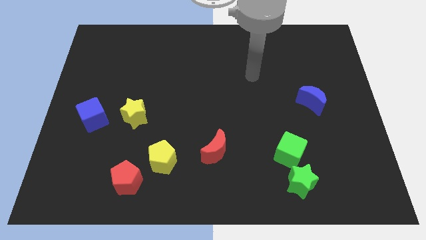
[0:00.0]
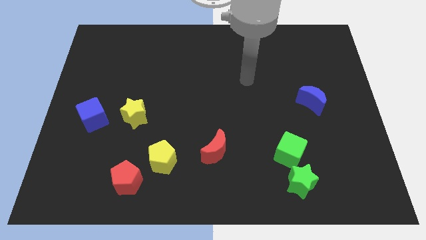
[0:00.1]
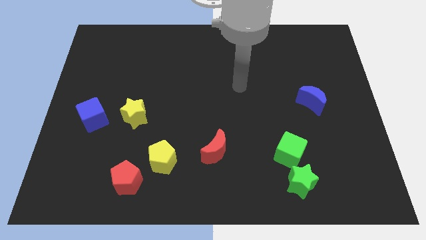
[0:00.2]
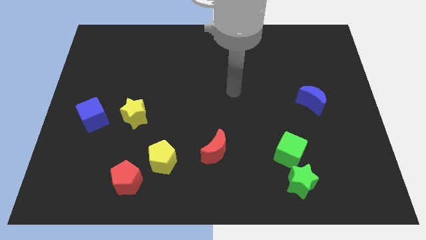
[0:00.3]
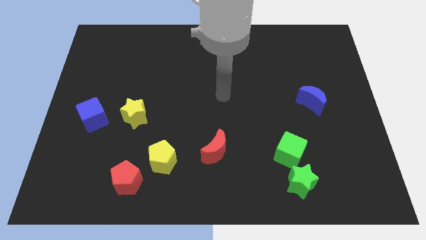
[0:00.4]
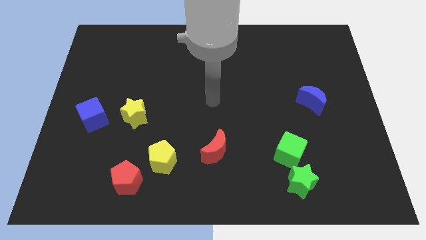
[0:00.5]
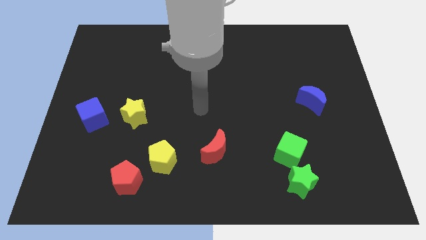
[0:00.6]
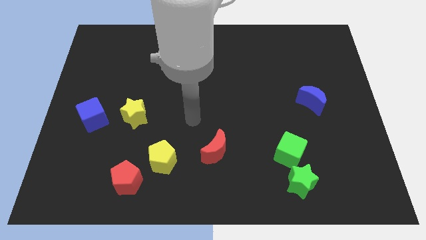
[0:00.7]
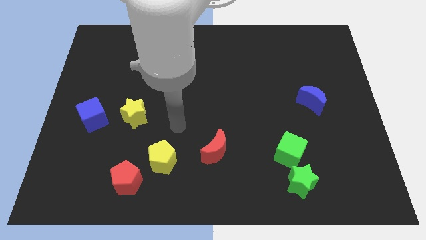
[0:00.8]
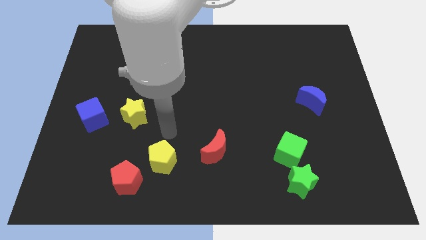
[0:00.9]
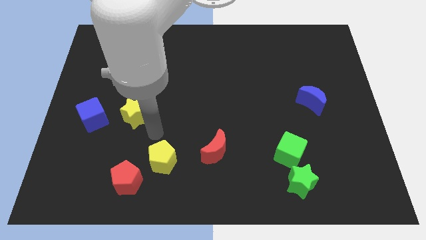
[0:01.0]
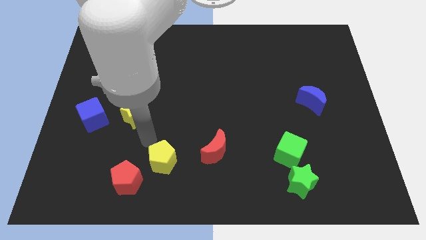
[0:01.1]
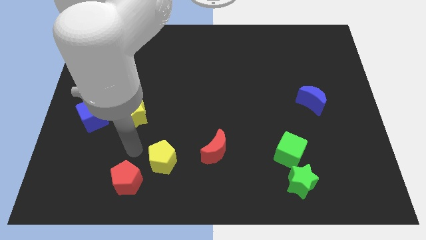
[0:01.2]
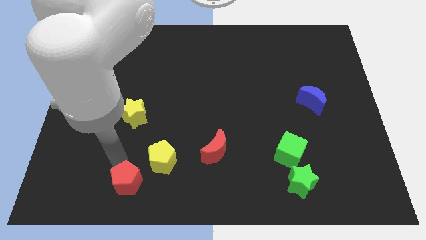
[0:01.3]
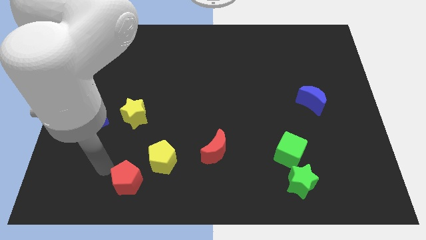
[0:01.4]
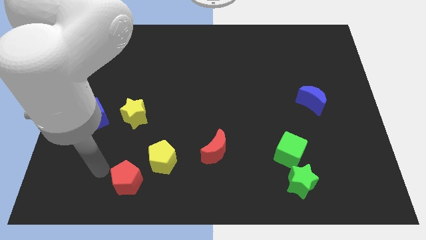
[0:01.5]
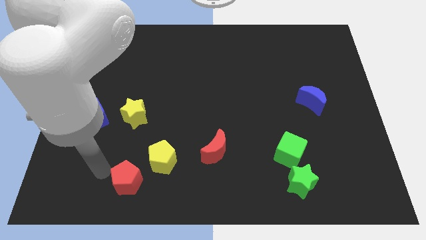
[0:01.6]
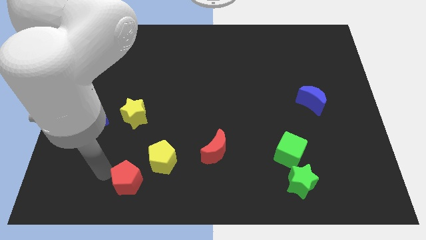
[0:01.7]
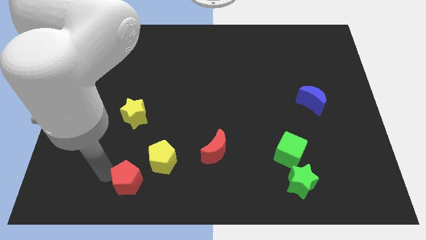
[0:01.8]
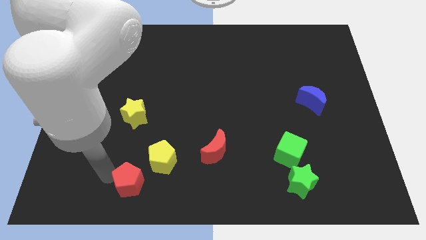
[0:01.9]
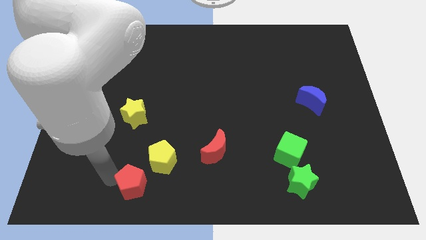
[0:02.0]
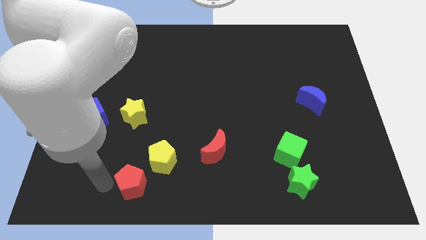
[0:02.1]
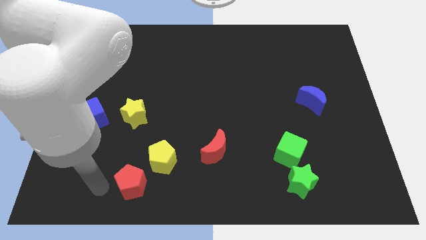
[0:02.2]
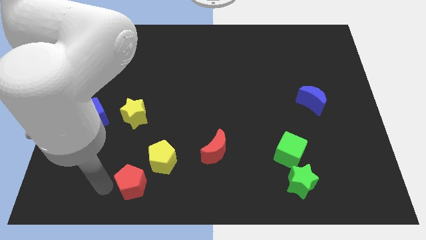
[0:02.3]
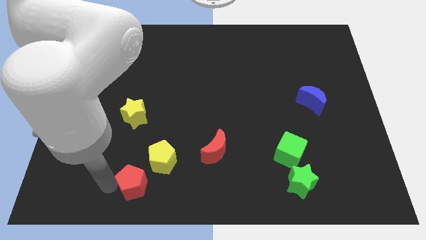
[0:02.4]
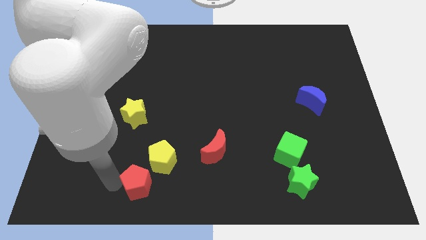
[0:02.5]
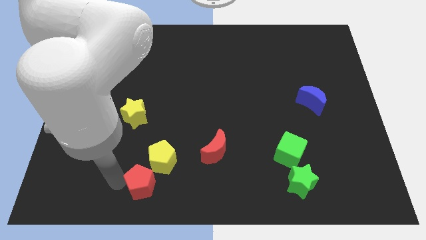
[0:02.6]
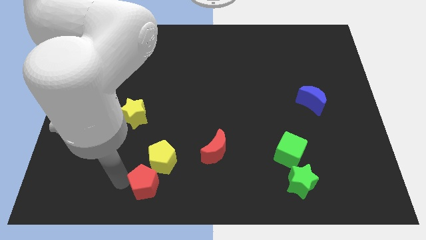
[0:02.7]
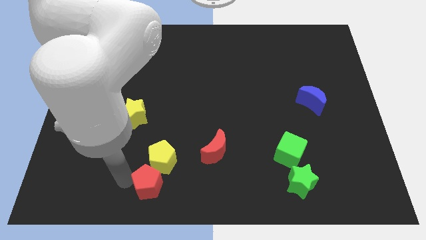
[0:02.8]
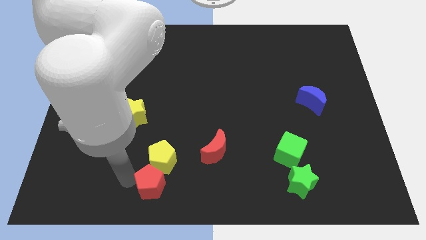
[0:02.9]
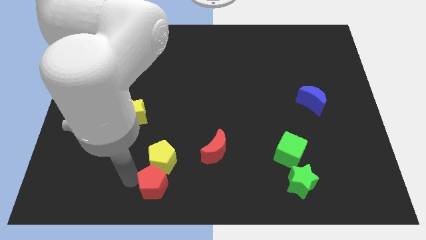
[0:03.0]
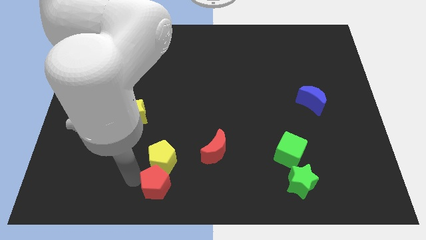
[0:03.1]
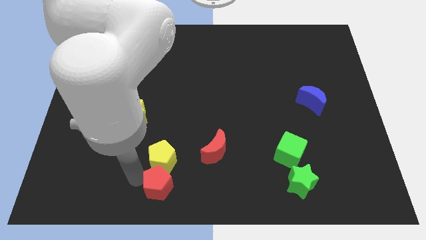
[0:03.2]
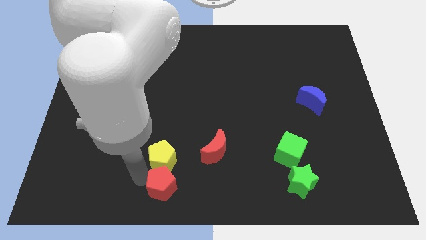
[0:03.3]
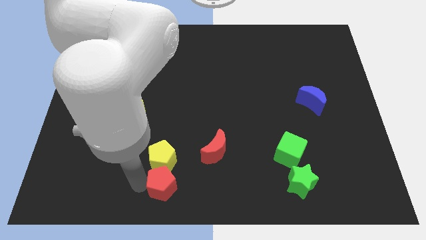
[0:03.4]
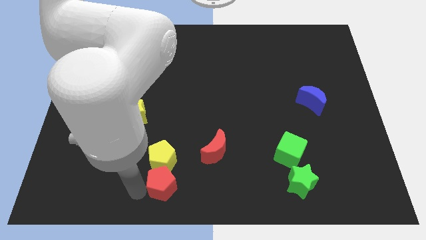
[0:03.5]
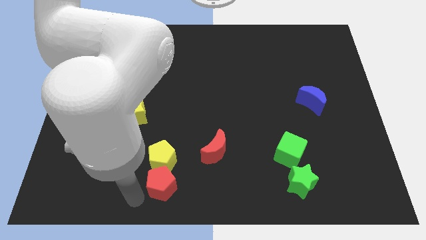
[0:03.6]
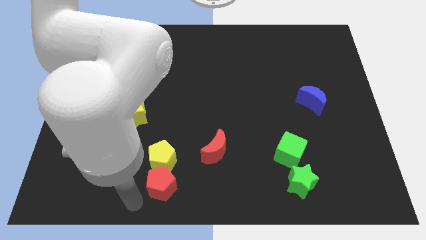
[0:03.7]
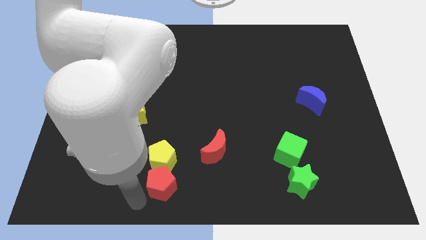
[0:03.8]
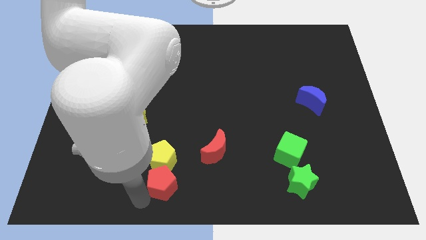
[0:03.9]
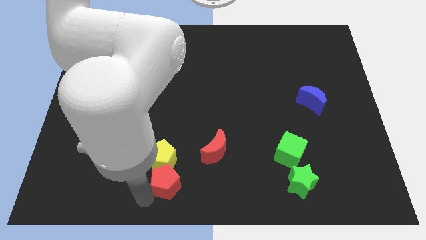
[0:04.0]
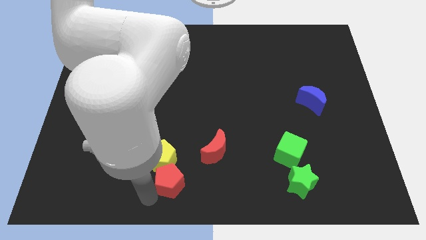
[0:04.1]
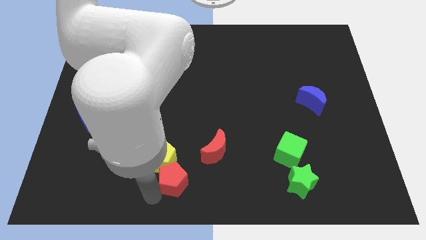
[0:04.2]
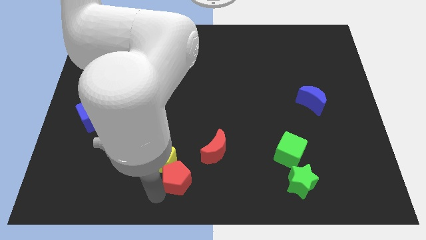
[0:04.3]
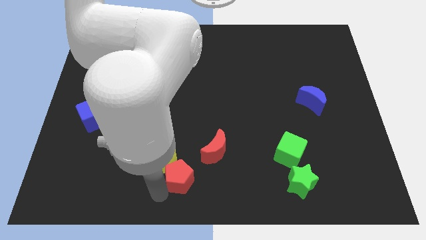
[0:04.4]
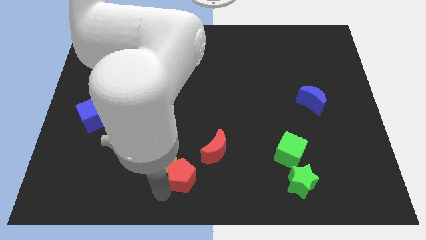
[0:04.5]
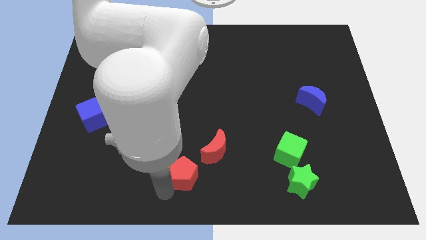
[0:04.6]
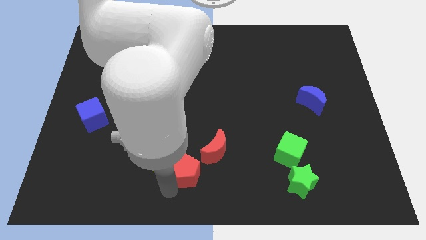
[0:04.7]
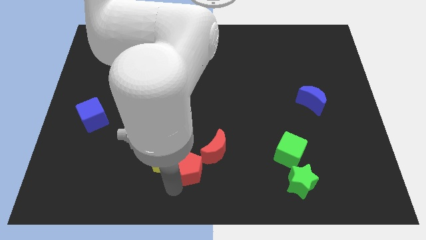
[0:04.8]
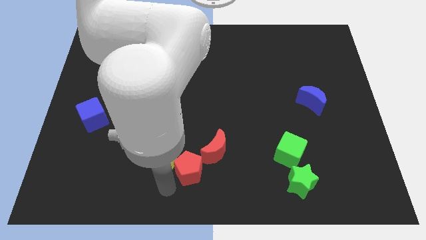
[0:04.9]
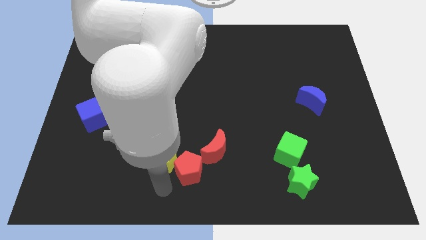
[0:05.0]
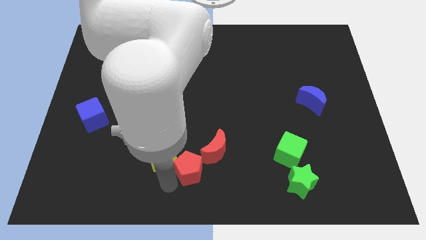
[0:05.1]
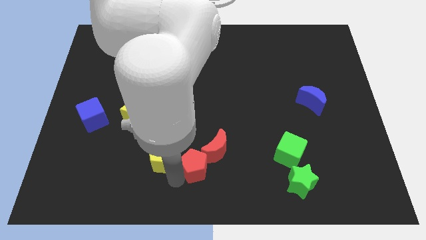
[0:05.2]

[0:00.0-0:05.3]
put the red pentagon to the red moon
